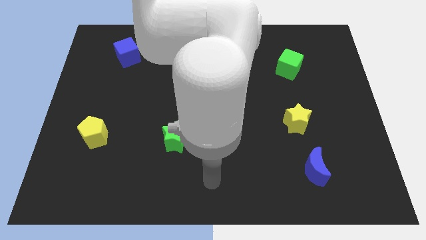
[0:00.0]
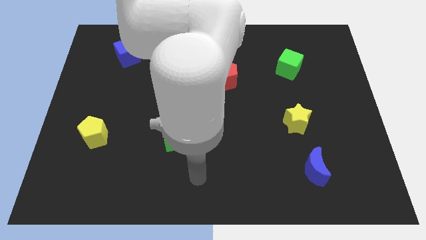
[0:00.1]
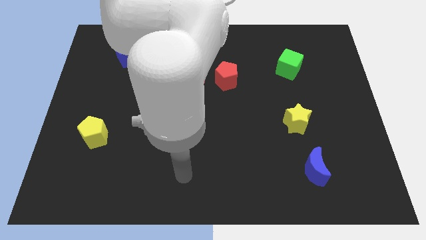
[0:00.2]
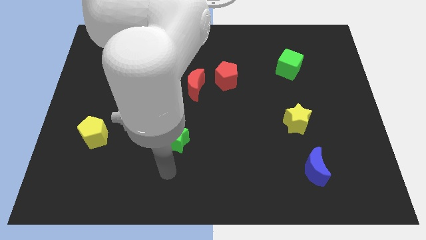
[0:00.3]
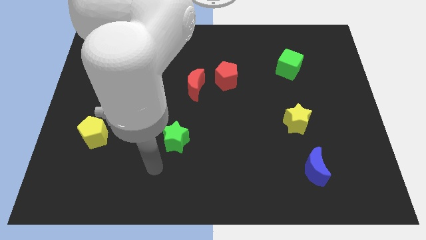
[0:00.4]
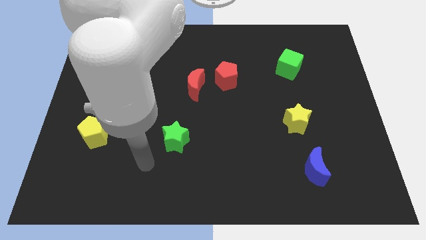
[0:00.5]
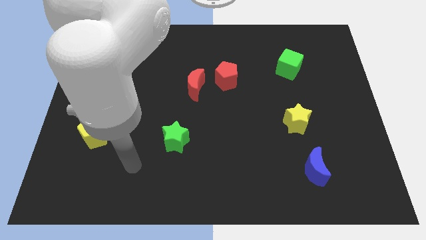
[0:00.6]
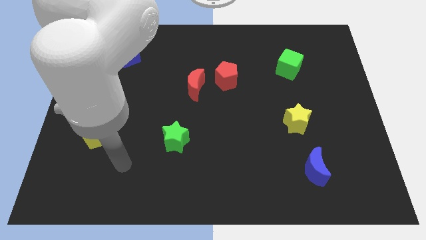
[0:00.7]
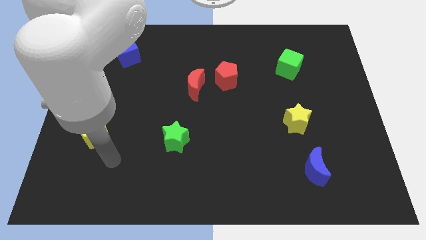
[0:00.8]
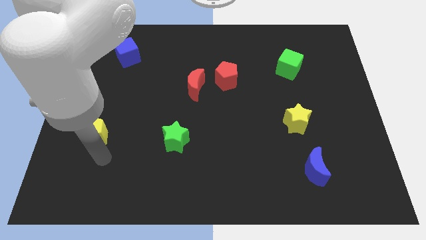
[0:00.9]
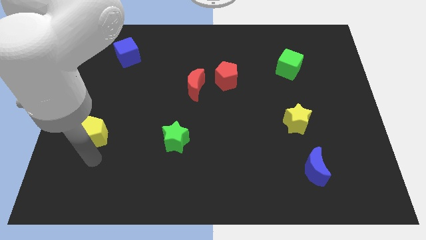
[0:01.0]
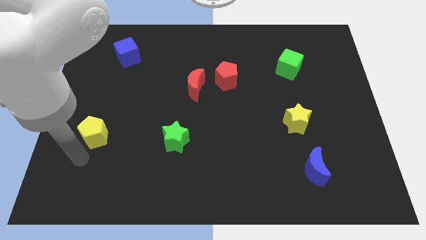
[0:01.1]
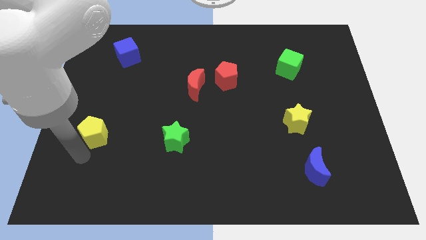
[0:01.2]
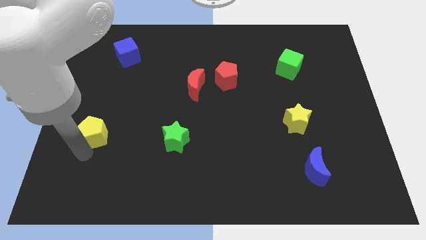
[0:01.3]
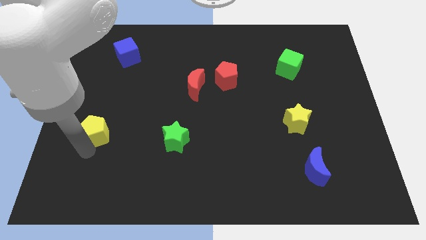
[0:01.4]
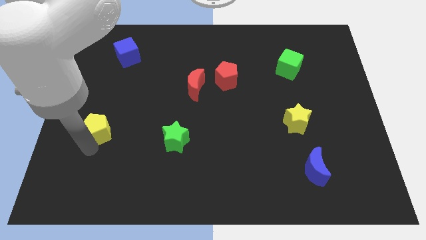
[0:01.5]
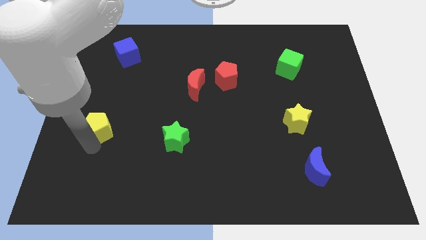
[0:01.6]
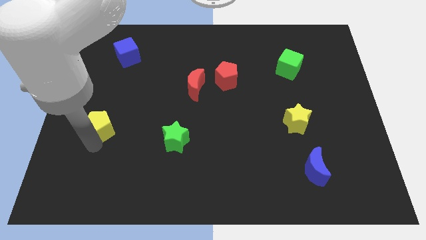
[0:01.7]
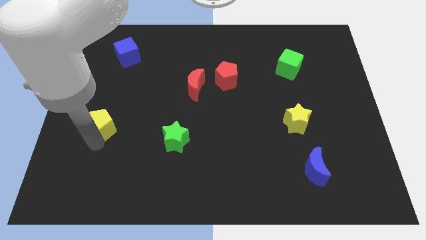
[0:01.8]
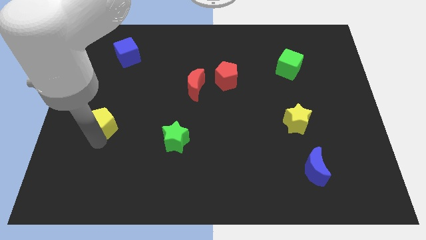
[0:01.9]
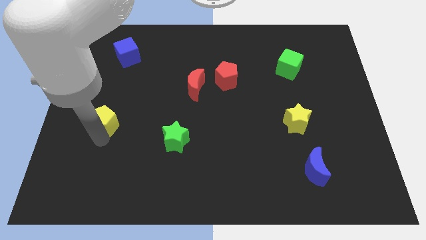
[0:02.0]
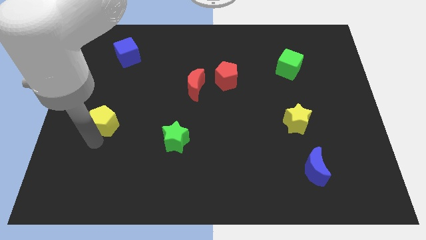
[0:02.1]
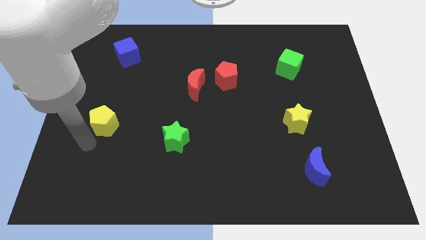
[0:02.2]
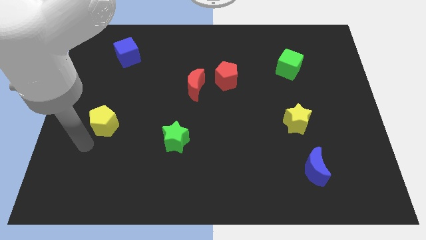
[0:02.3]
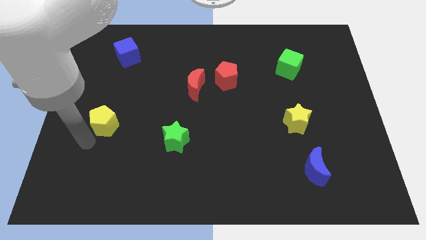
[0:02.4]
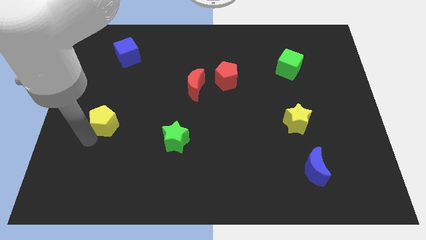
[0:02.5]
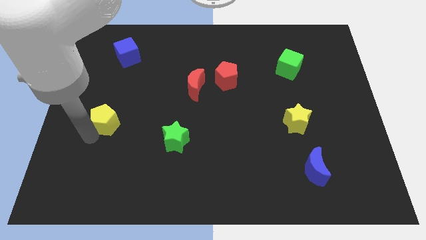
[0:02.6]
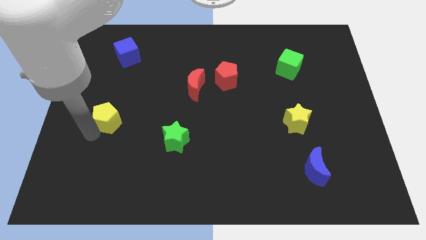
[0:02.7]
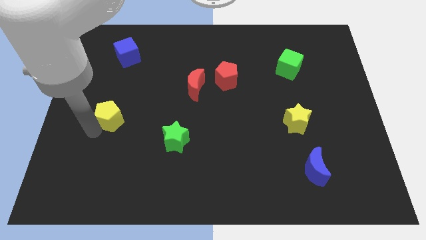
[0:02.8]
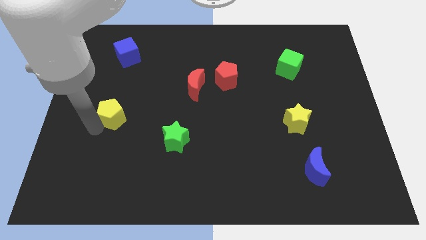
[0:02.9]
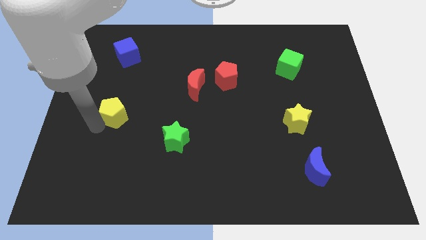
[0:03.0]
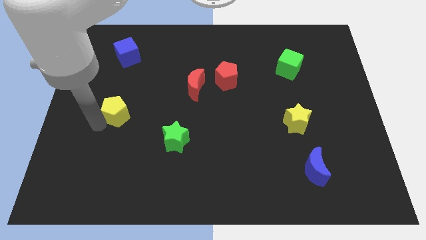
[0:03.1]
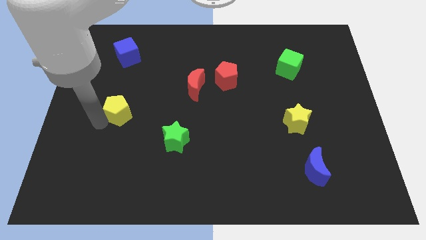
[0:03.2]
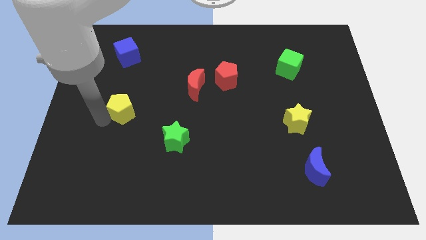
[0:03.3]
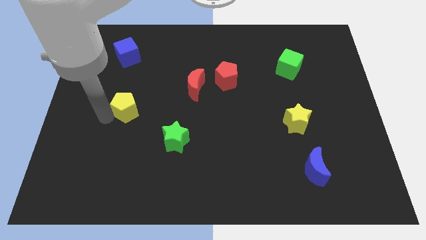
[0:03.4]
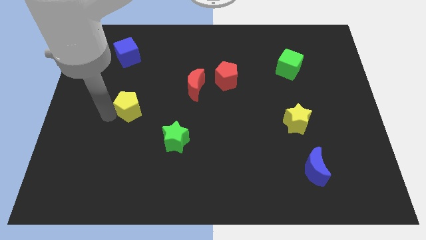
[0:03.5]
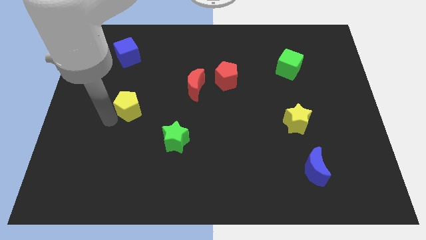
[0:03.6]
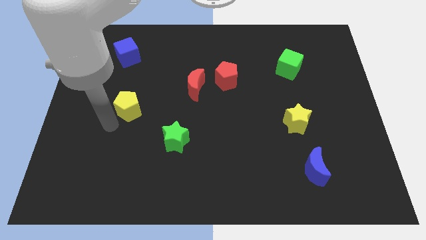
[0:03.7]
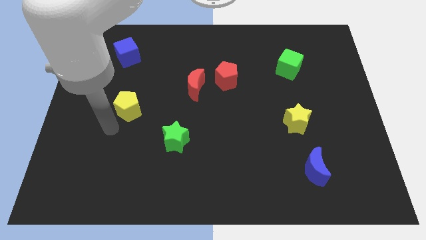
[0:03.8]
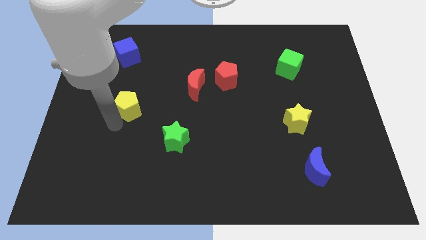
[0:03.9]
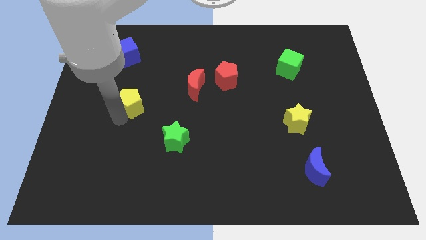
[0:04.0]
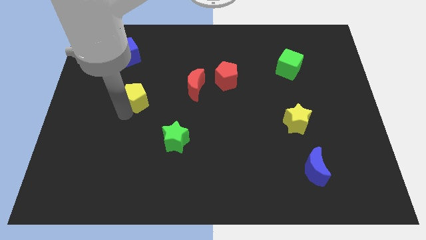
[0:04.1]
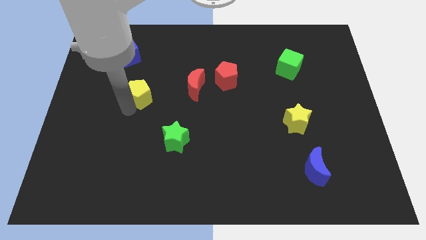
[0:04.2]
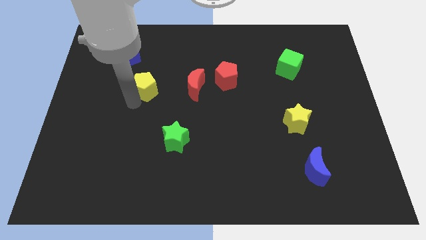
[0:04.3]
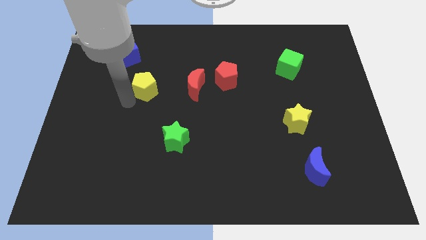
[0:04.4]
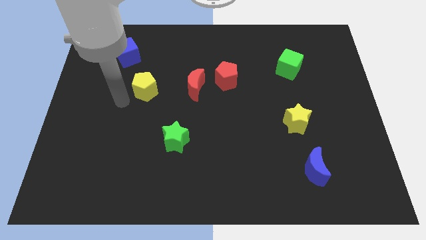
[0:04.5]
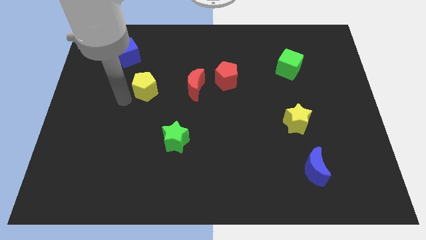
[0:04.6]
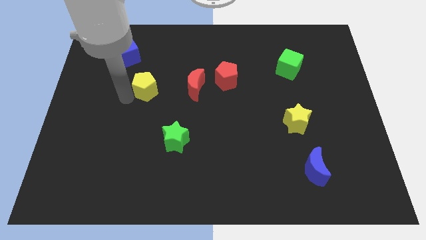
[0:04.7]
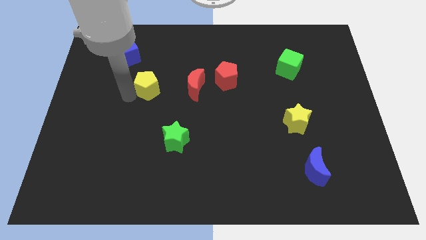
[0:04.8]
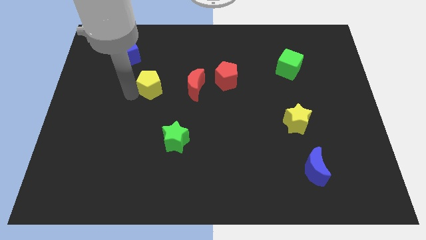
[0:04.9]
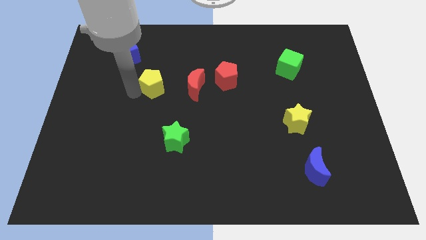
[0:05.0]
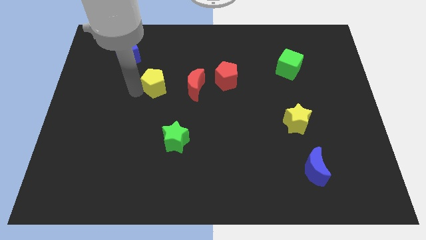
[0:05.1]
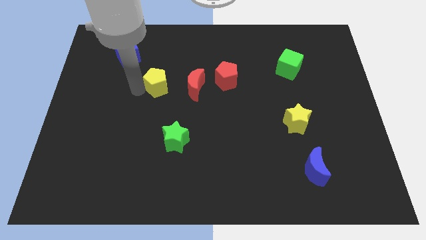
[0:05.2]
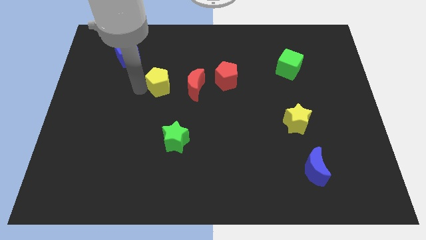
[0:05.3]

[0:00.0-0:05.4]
push the yellow pentagon upwards and then to the right

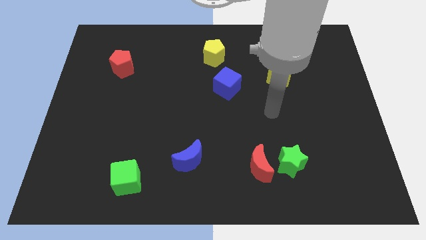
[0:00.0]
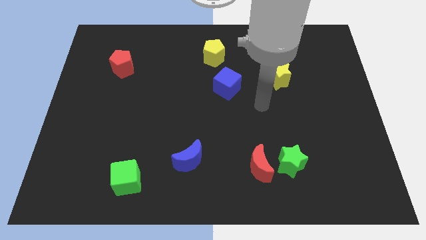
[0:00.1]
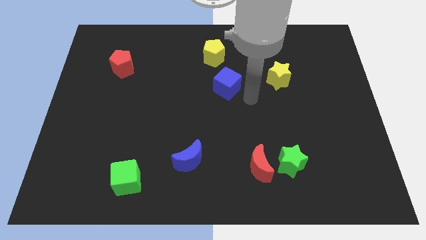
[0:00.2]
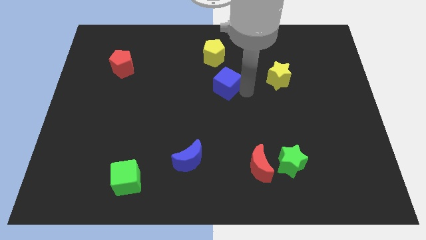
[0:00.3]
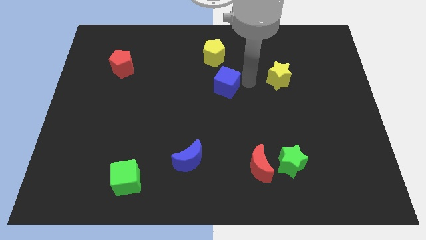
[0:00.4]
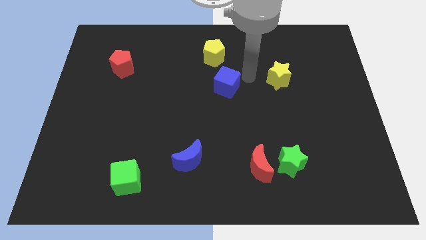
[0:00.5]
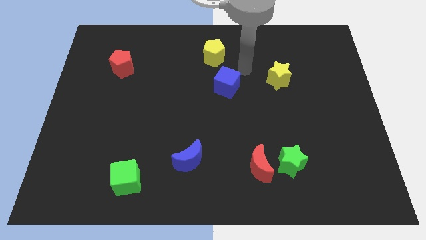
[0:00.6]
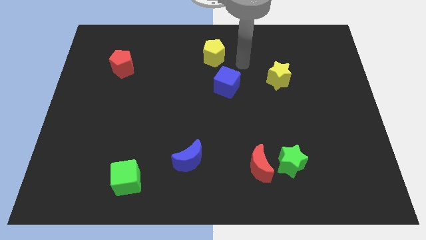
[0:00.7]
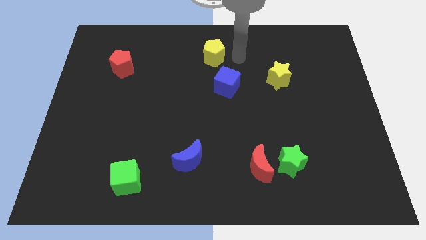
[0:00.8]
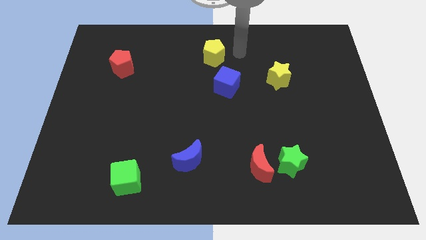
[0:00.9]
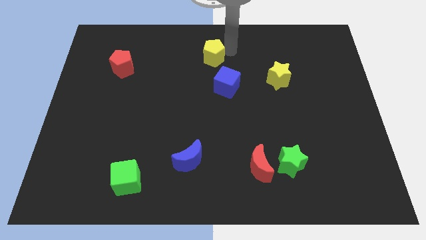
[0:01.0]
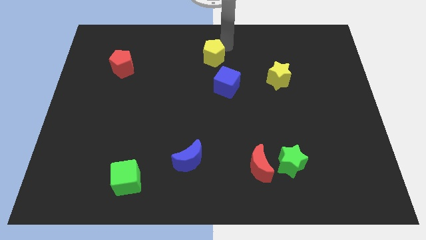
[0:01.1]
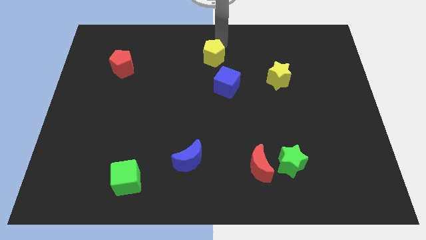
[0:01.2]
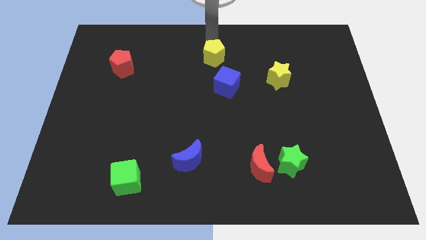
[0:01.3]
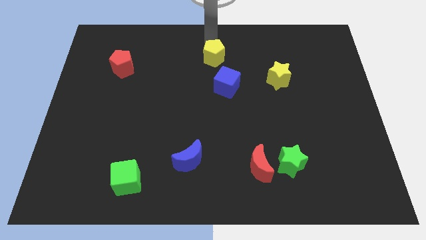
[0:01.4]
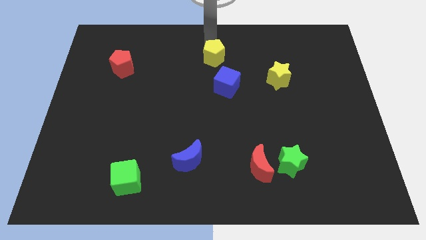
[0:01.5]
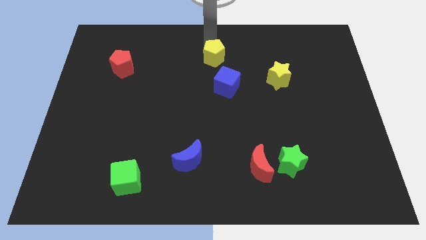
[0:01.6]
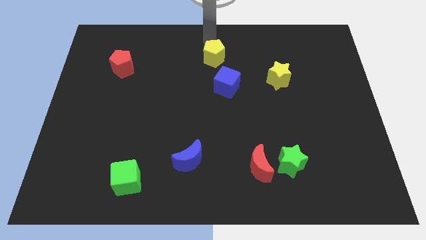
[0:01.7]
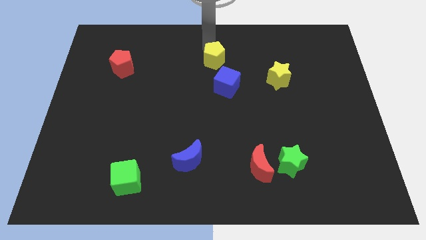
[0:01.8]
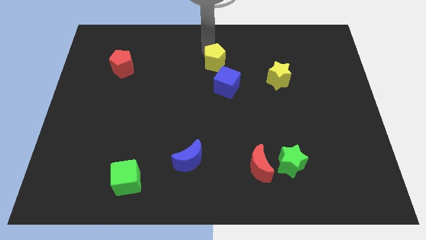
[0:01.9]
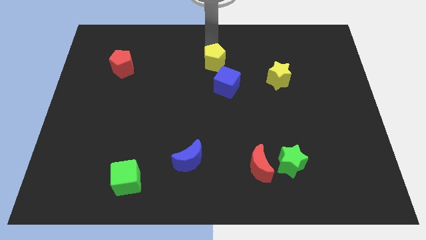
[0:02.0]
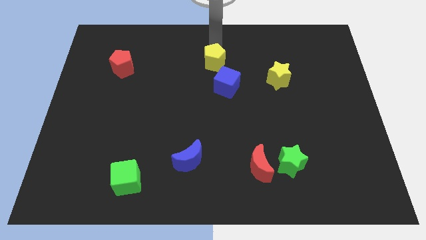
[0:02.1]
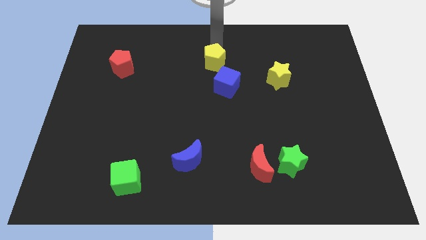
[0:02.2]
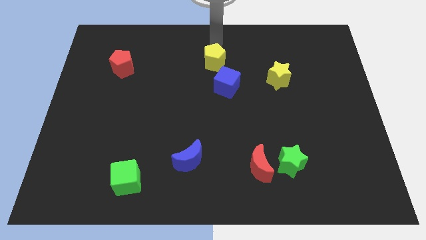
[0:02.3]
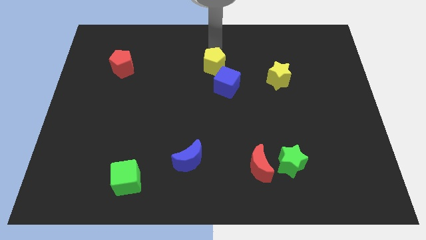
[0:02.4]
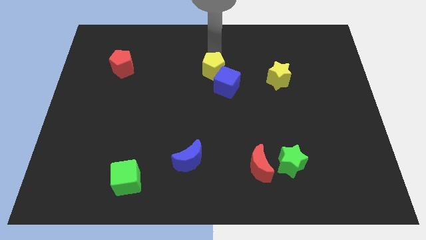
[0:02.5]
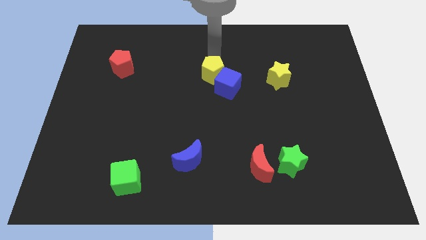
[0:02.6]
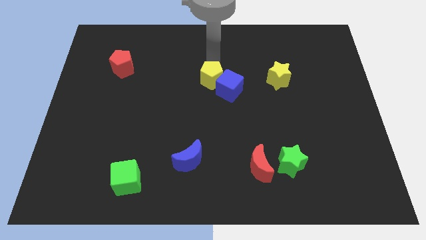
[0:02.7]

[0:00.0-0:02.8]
slightly push the yellow pentagon downwards
